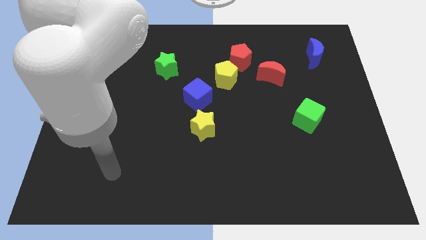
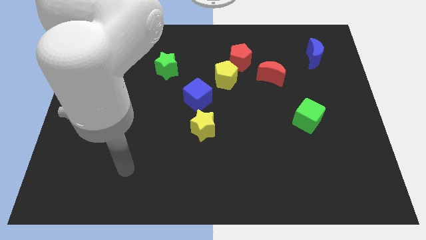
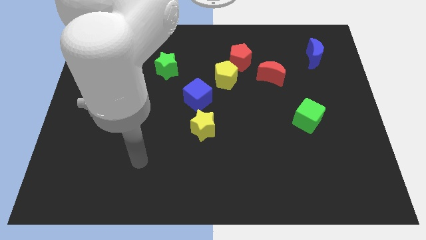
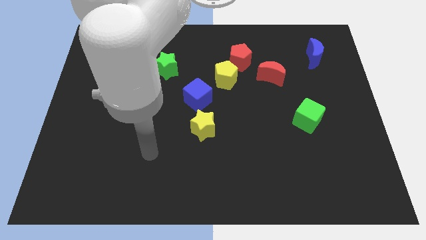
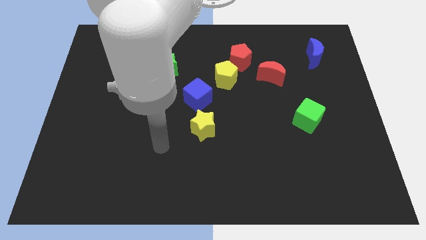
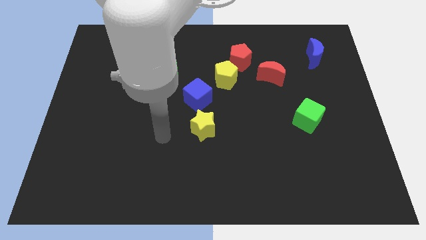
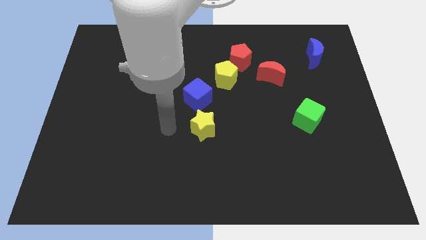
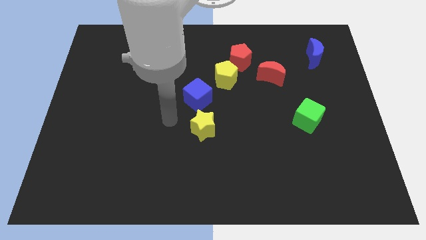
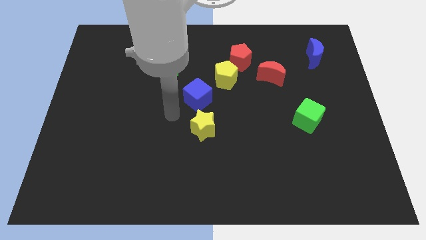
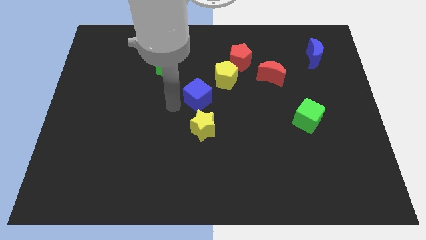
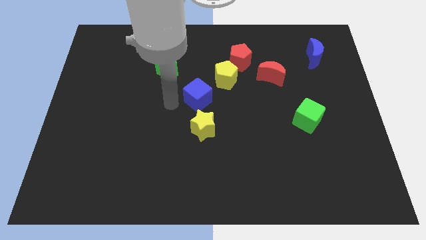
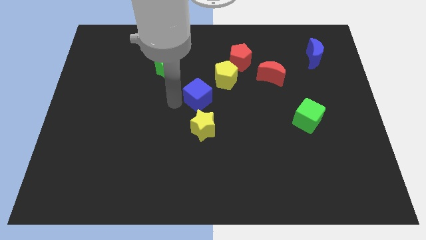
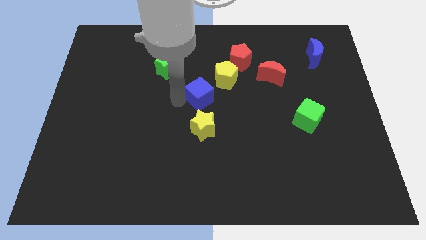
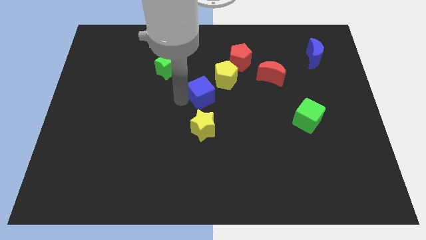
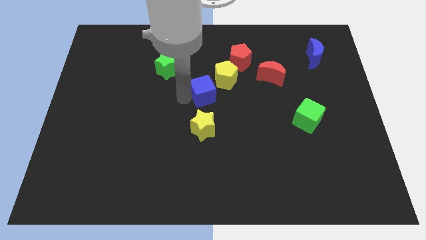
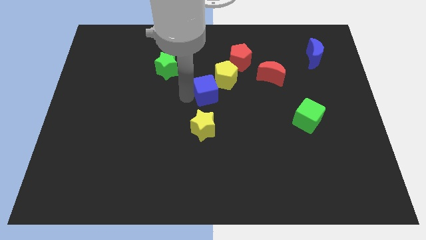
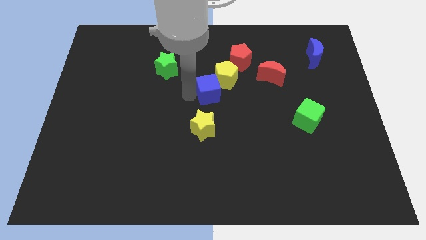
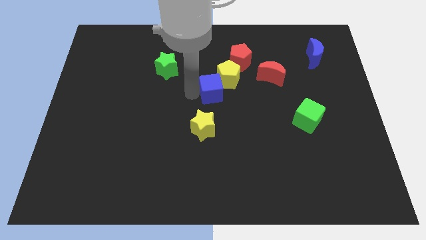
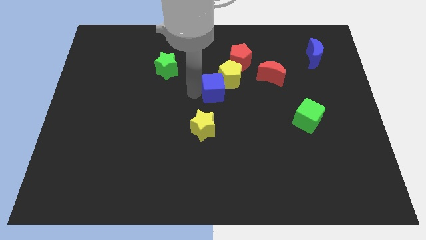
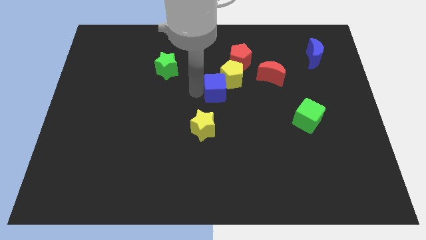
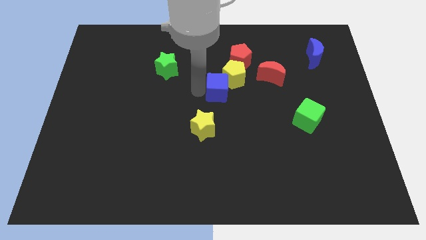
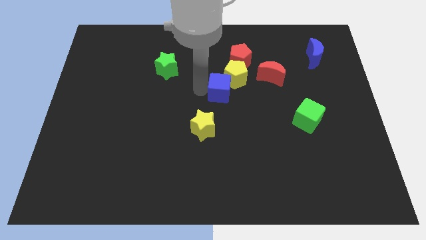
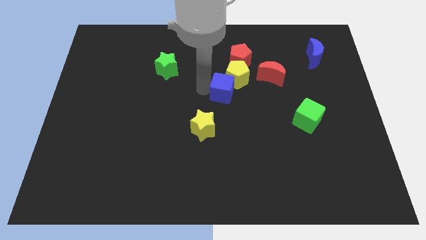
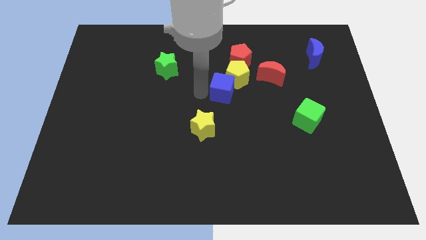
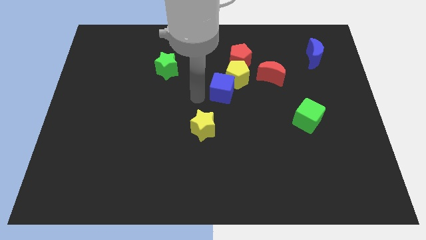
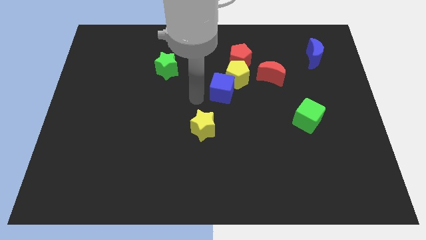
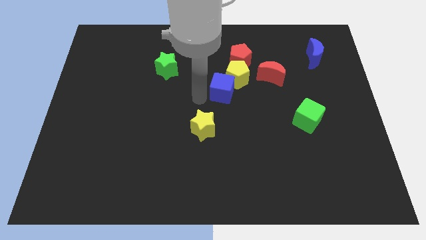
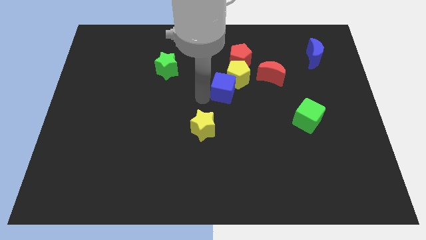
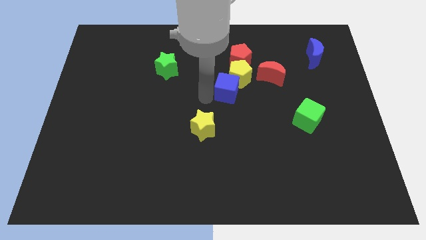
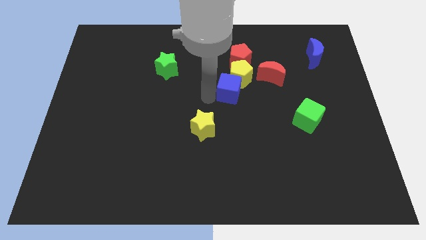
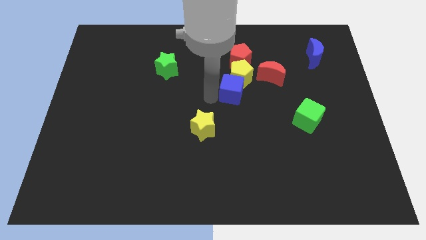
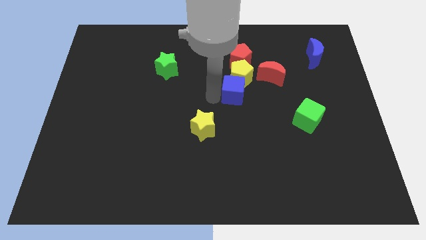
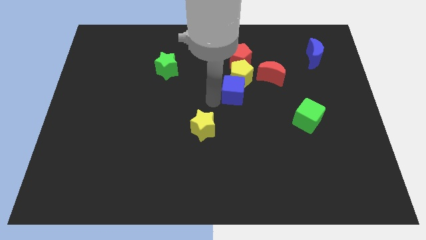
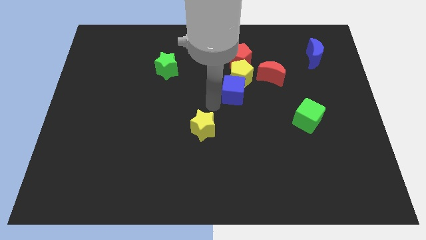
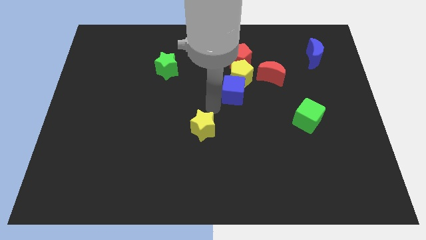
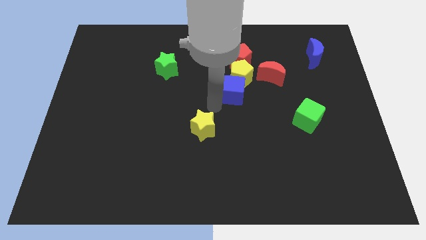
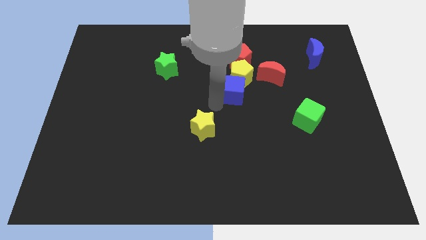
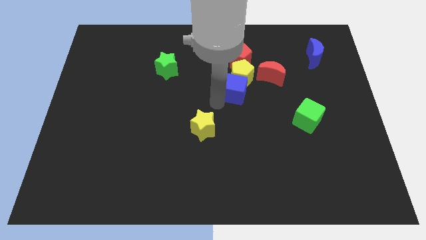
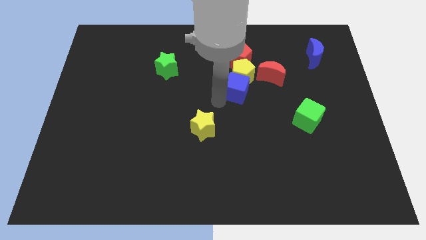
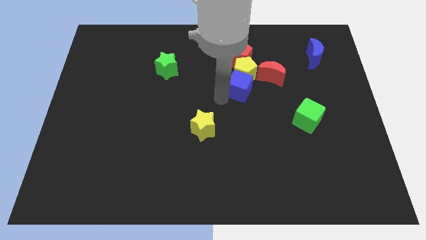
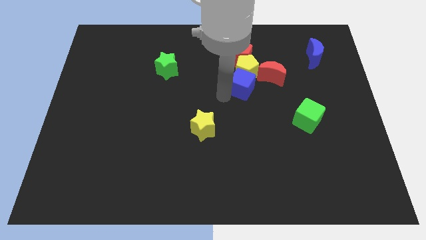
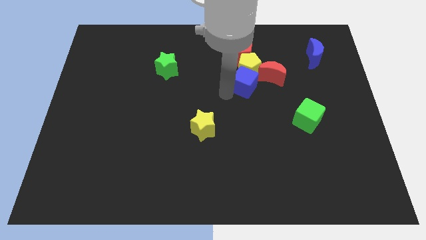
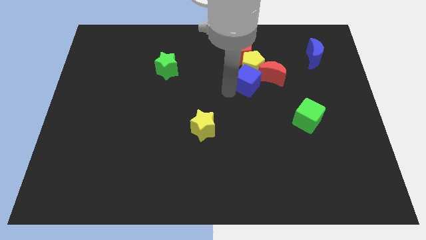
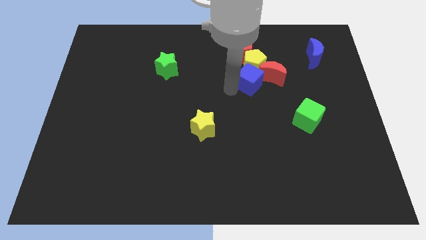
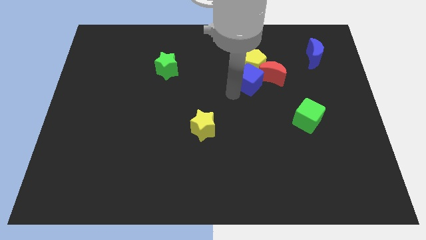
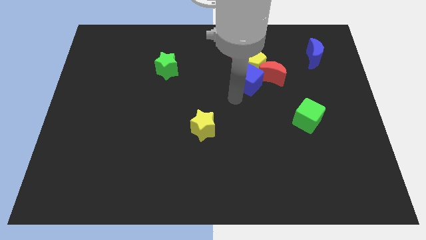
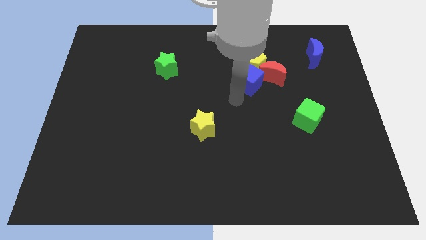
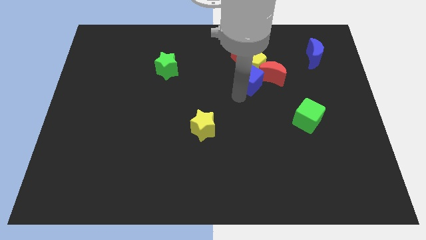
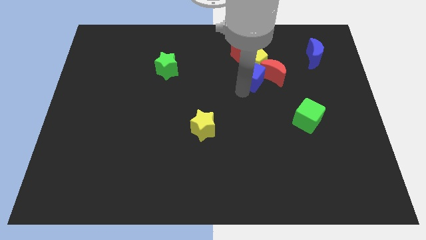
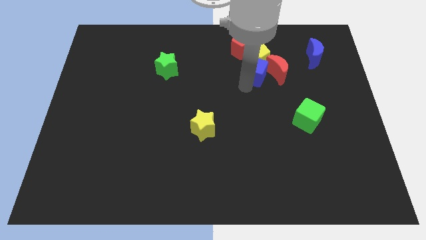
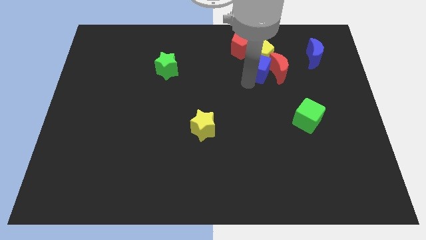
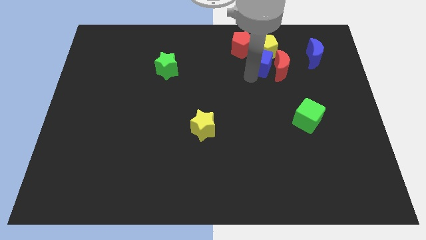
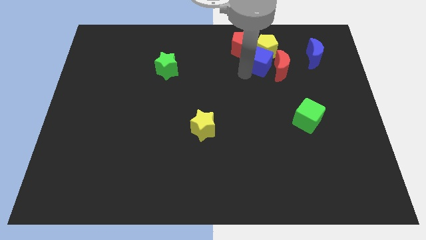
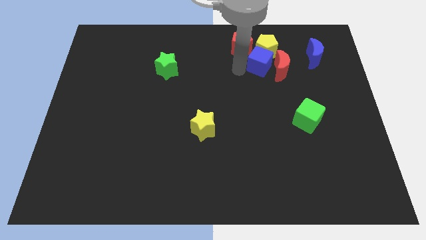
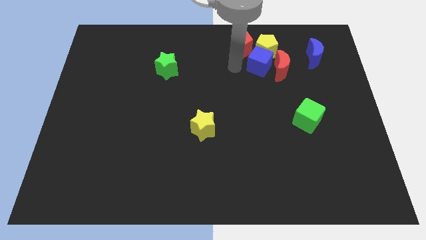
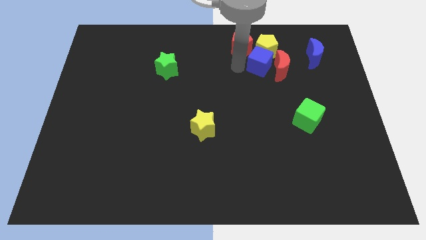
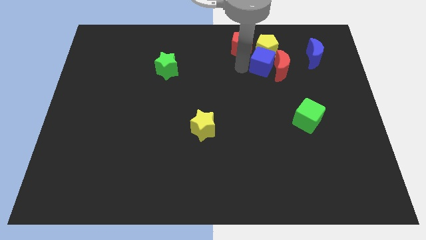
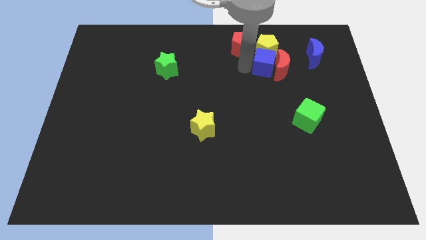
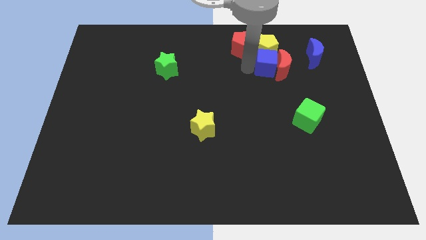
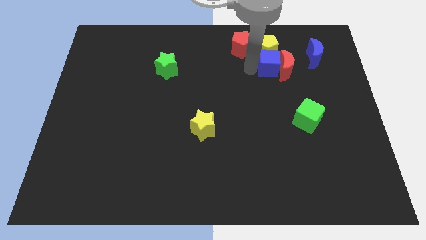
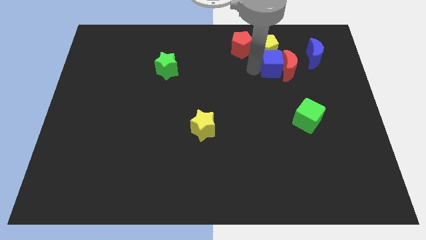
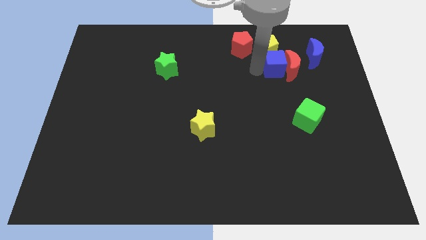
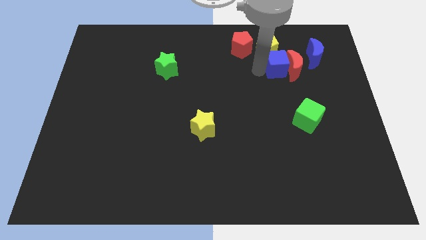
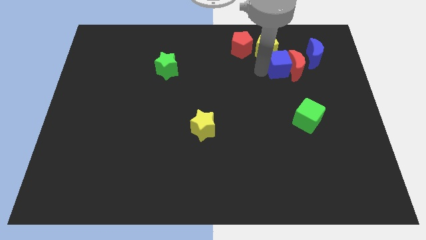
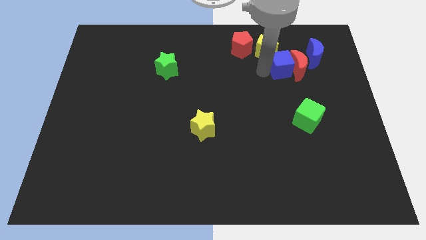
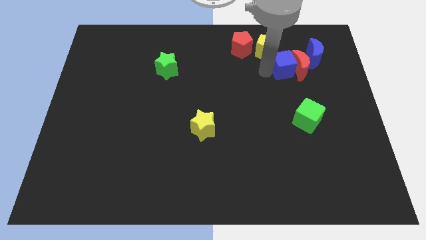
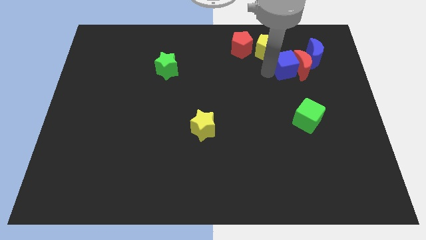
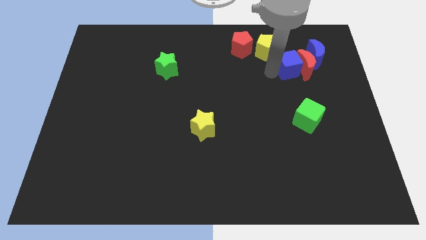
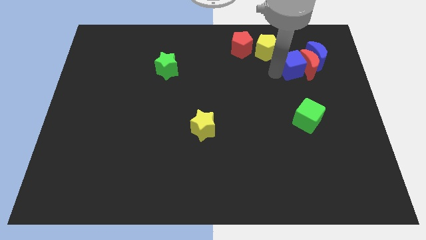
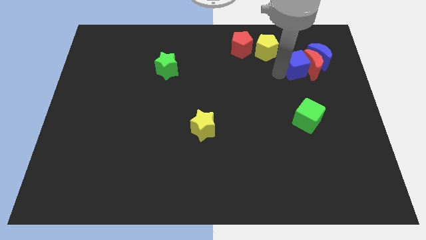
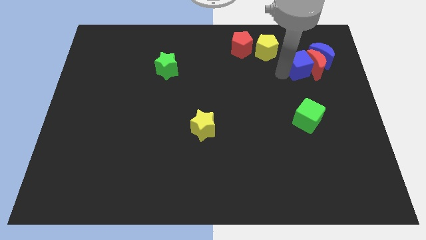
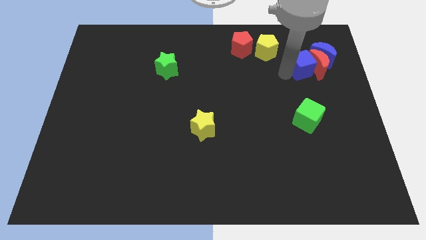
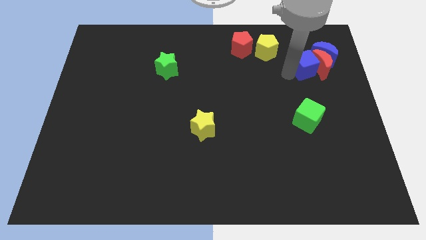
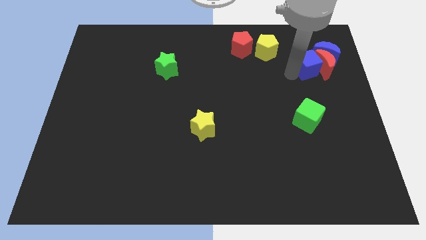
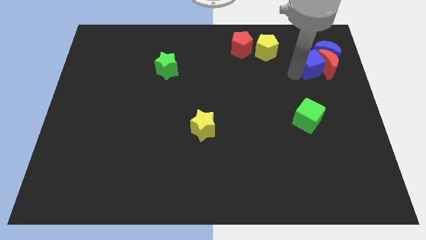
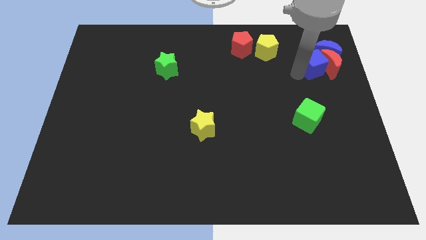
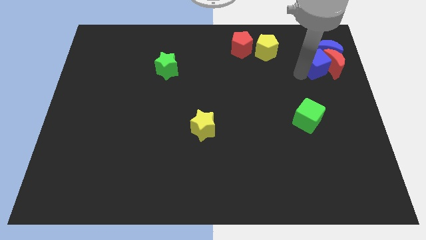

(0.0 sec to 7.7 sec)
put the blue cube close to the blue moon
